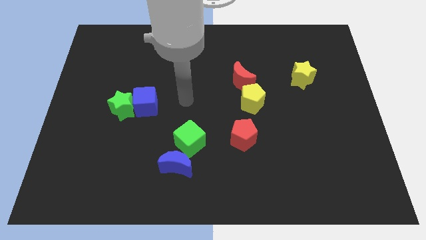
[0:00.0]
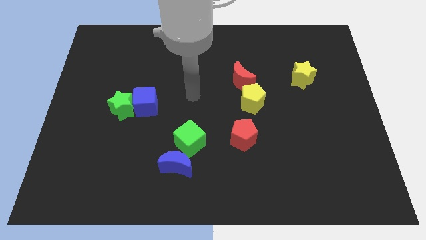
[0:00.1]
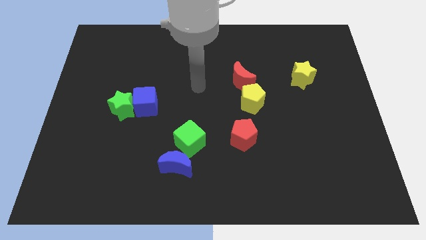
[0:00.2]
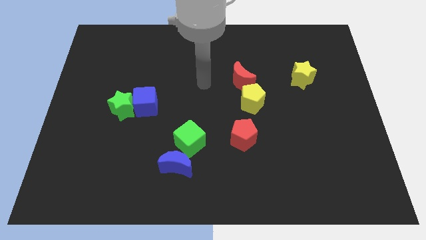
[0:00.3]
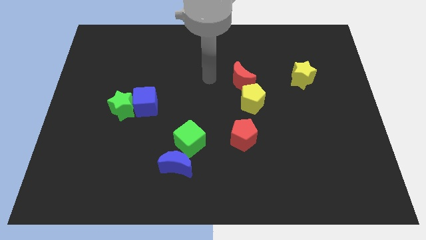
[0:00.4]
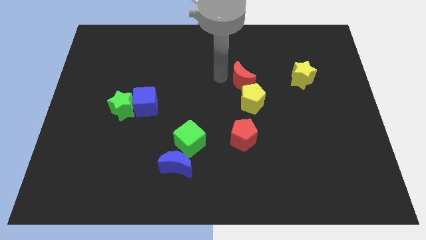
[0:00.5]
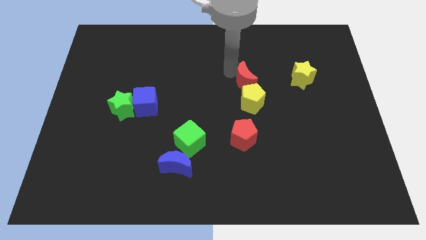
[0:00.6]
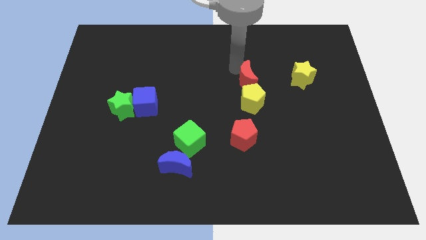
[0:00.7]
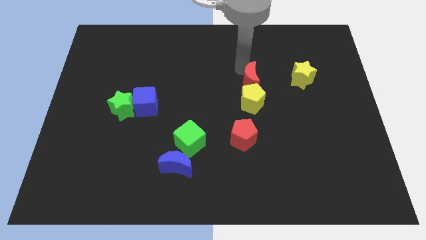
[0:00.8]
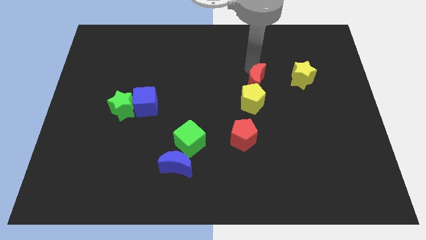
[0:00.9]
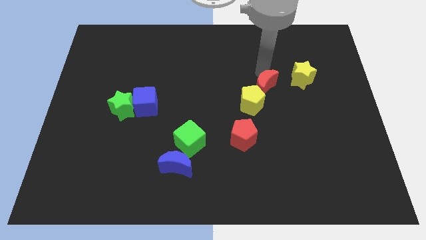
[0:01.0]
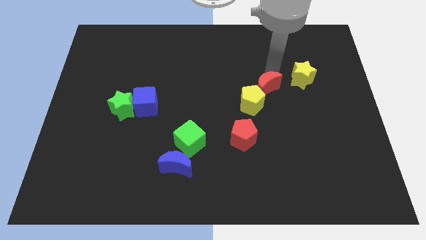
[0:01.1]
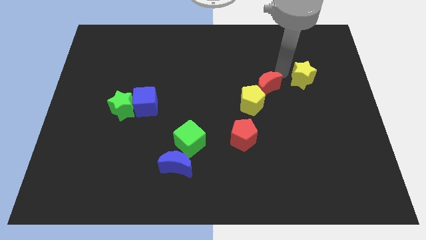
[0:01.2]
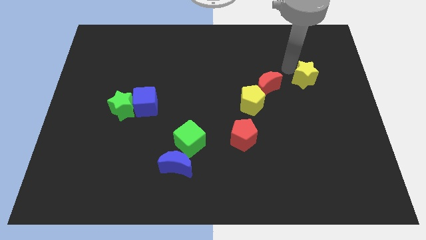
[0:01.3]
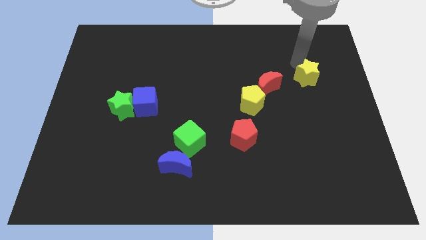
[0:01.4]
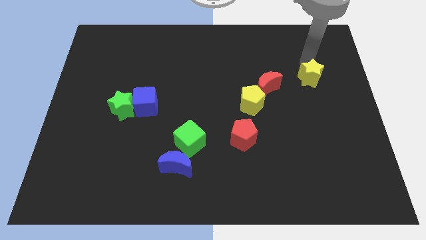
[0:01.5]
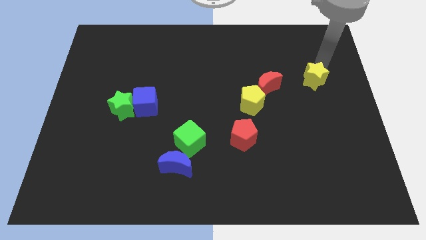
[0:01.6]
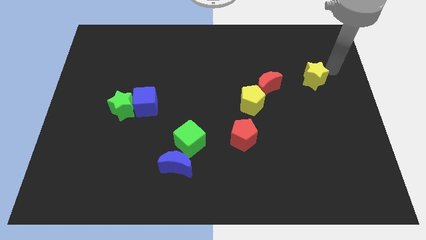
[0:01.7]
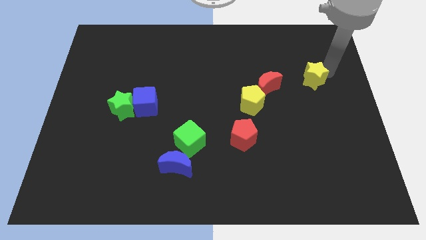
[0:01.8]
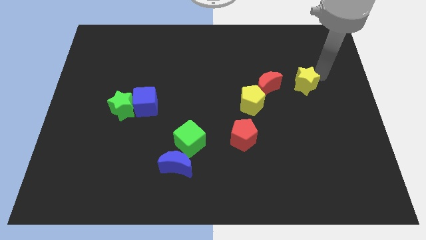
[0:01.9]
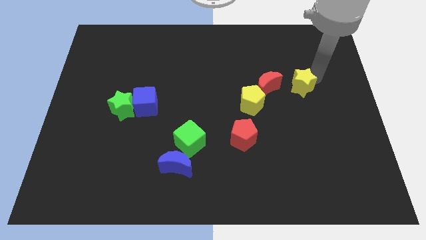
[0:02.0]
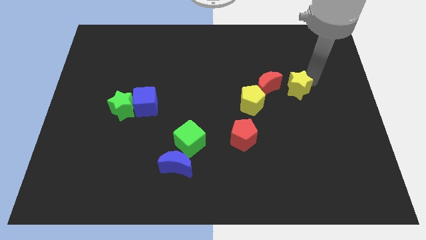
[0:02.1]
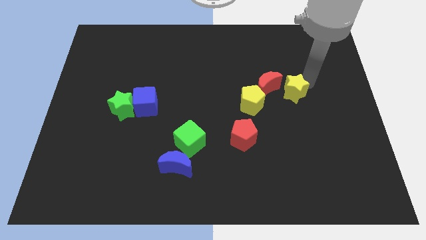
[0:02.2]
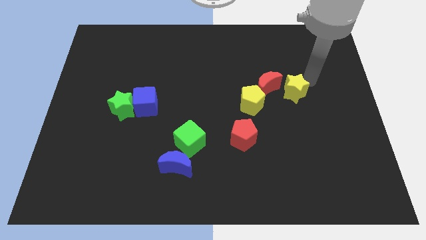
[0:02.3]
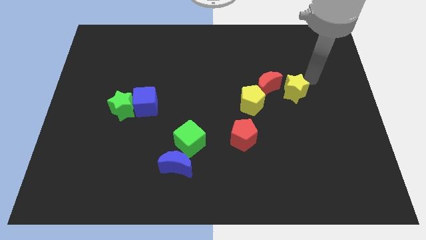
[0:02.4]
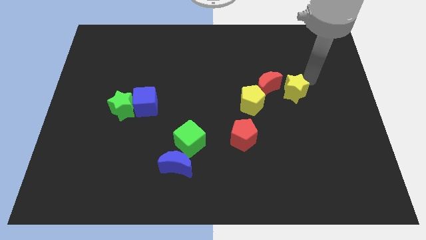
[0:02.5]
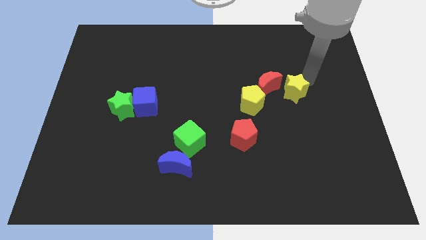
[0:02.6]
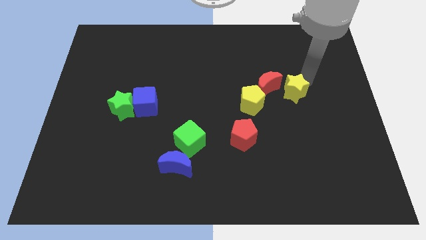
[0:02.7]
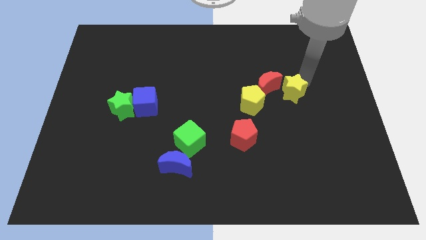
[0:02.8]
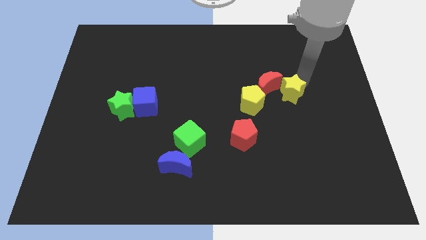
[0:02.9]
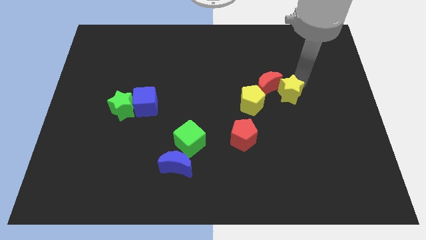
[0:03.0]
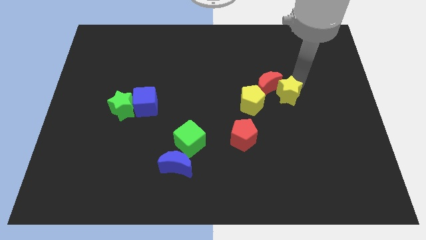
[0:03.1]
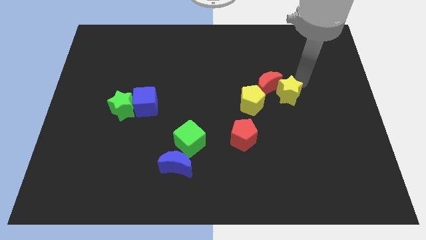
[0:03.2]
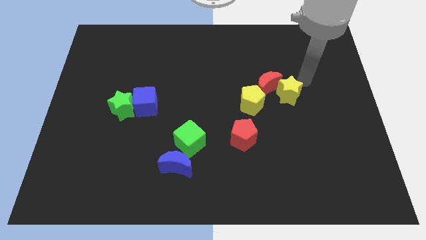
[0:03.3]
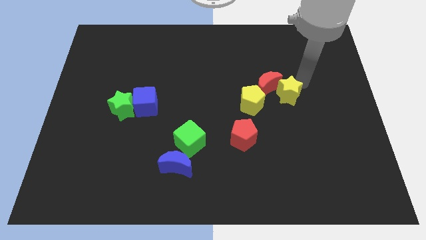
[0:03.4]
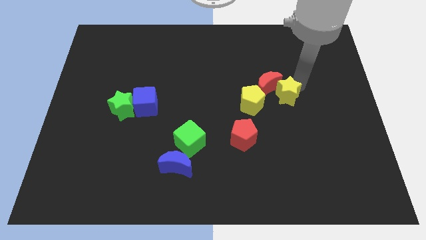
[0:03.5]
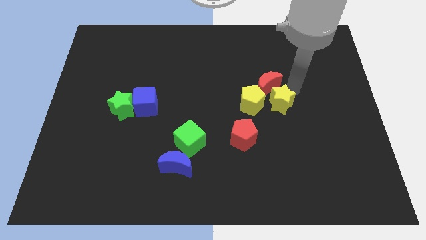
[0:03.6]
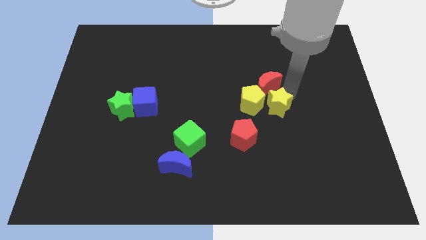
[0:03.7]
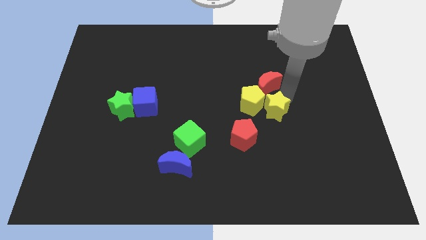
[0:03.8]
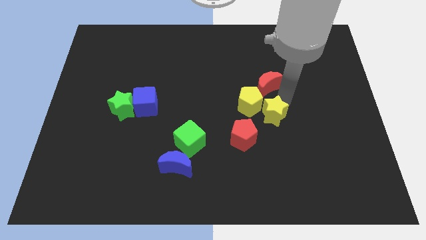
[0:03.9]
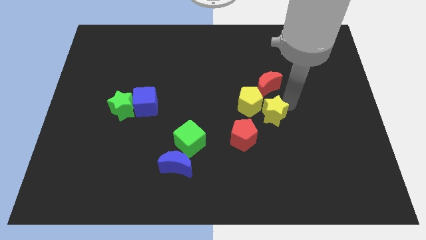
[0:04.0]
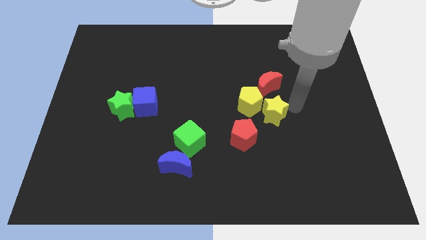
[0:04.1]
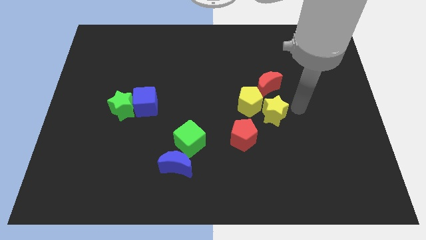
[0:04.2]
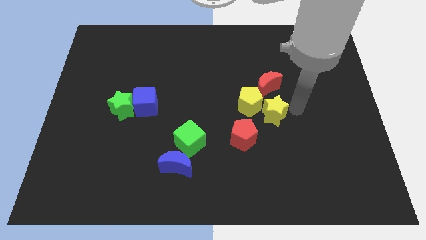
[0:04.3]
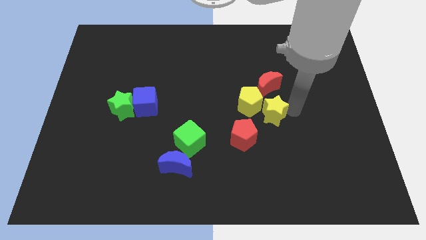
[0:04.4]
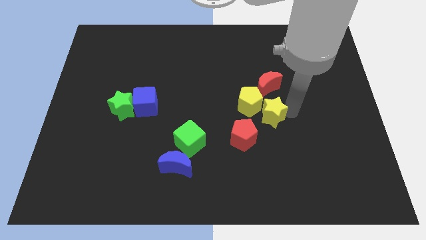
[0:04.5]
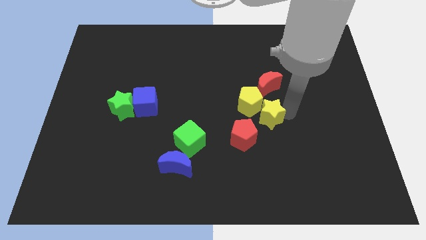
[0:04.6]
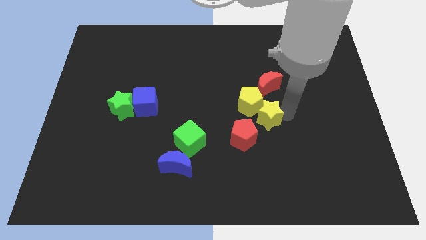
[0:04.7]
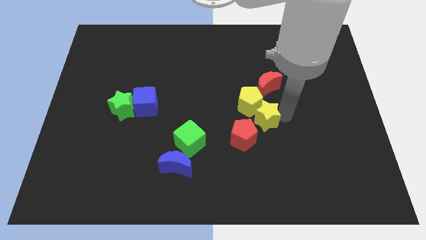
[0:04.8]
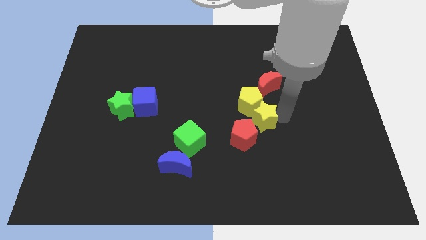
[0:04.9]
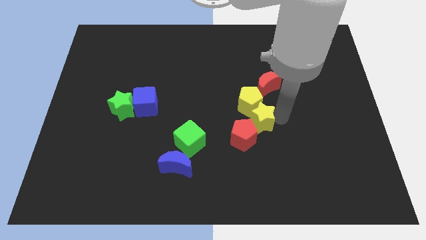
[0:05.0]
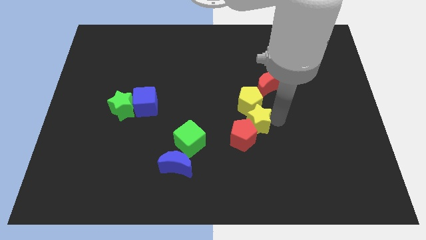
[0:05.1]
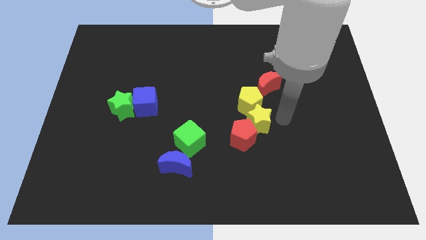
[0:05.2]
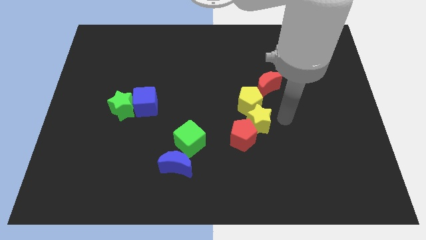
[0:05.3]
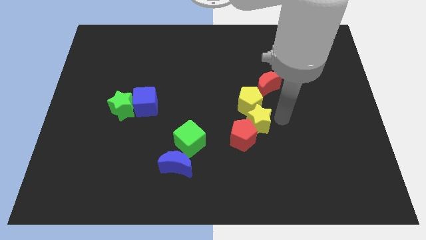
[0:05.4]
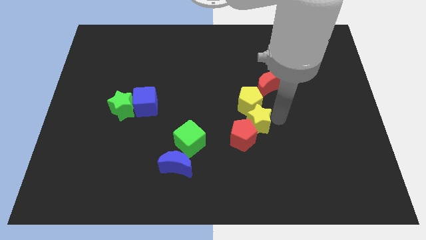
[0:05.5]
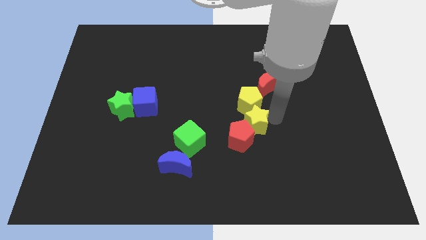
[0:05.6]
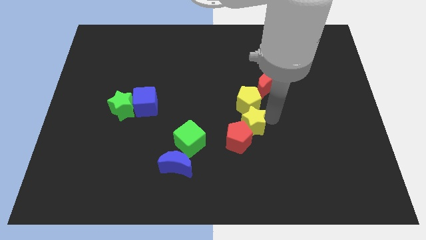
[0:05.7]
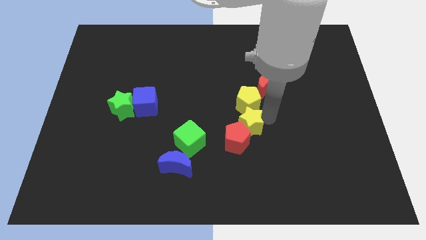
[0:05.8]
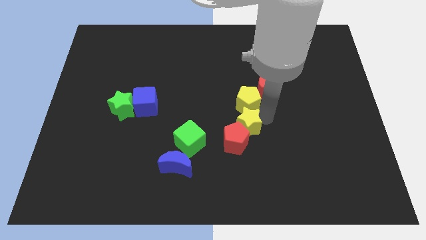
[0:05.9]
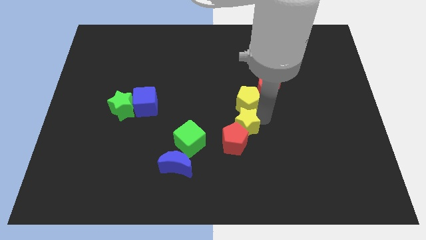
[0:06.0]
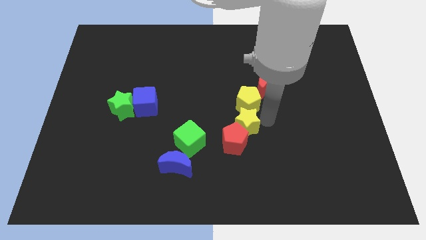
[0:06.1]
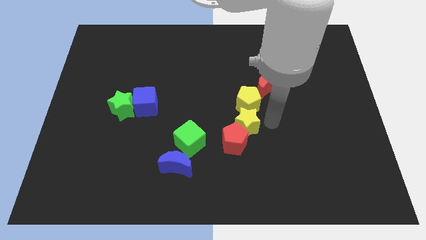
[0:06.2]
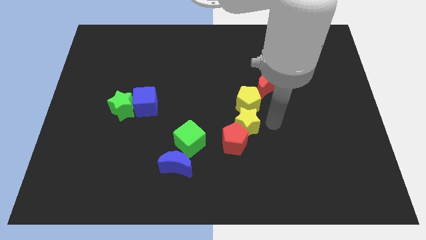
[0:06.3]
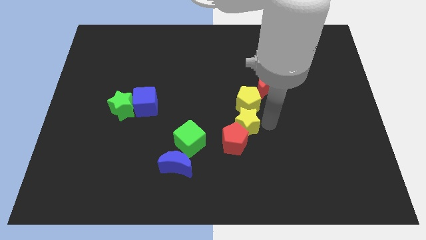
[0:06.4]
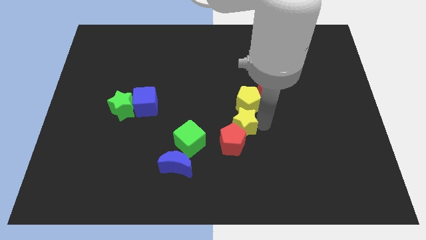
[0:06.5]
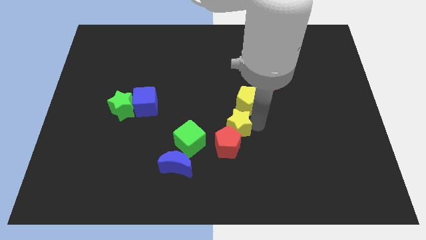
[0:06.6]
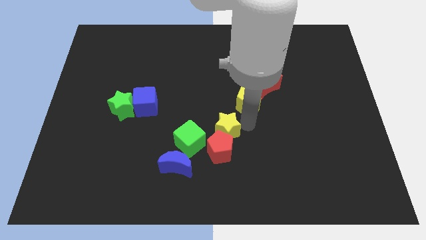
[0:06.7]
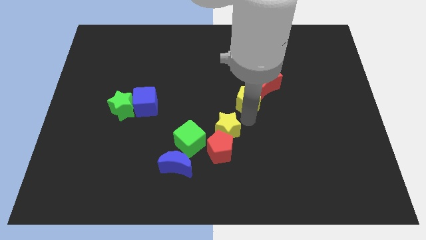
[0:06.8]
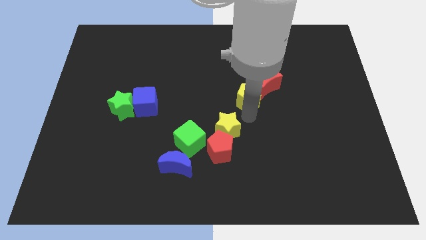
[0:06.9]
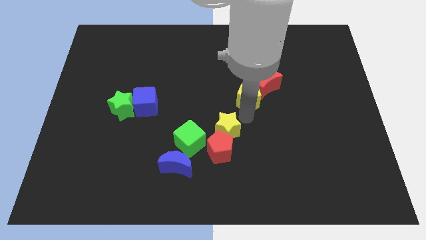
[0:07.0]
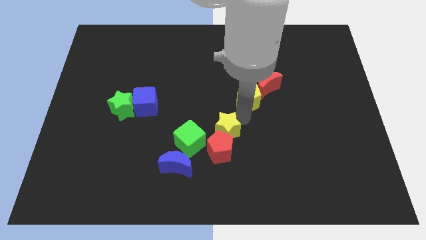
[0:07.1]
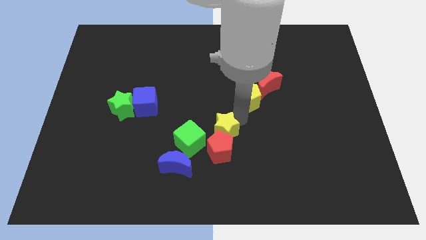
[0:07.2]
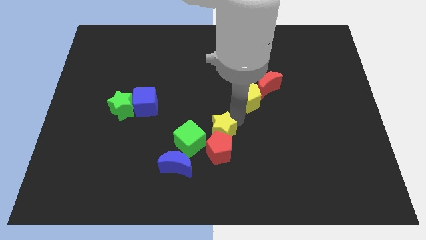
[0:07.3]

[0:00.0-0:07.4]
slide the yellow star diagonally up and to the right of the blue moon
